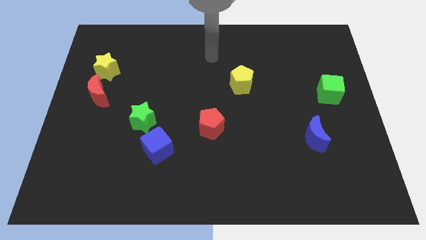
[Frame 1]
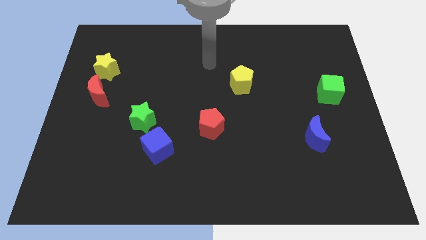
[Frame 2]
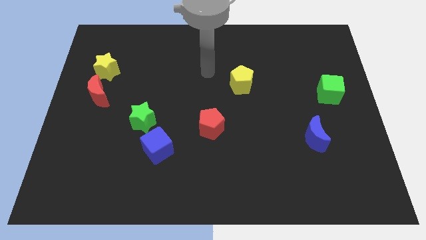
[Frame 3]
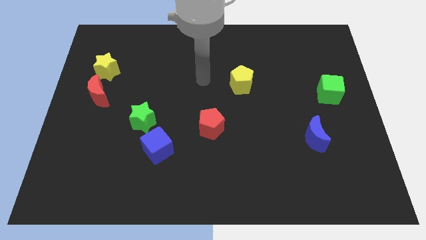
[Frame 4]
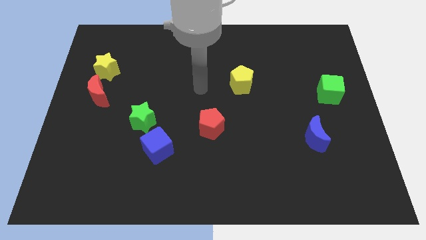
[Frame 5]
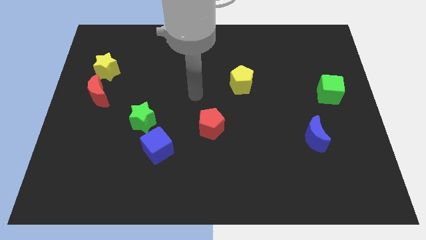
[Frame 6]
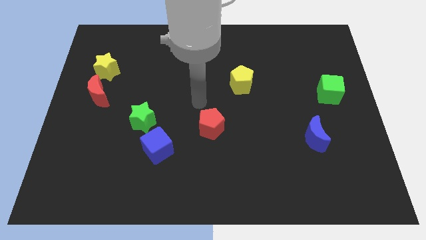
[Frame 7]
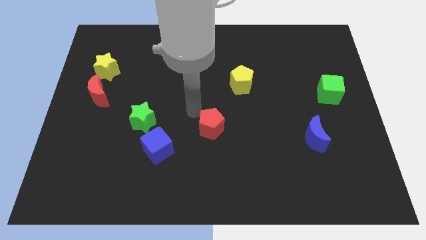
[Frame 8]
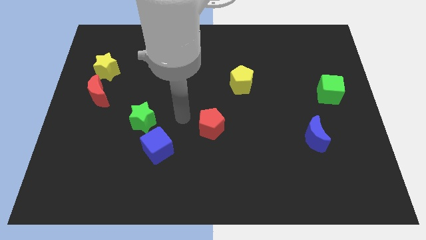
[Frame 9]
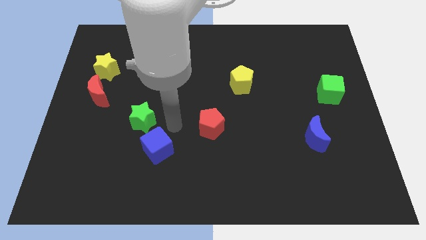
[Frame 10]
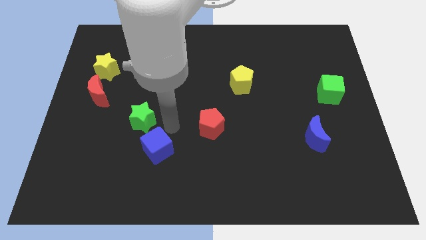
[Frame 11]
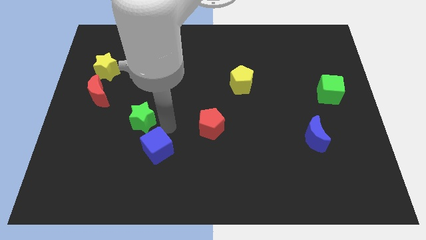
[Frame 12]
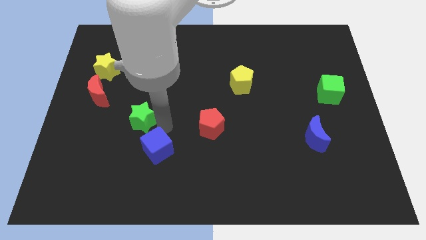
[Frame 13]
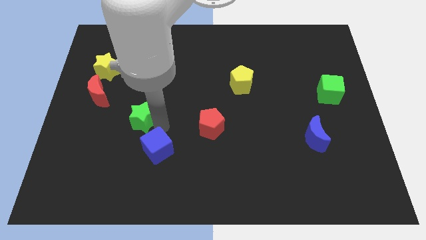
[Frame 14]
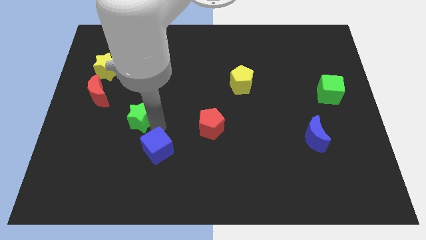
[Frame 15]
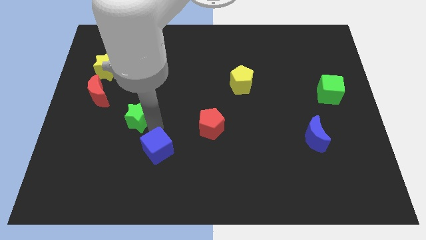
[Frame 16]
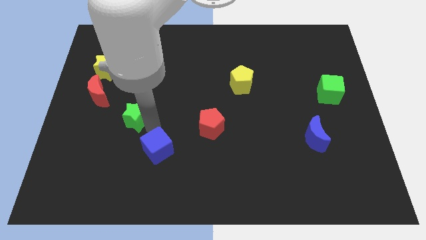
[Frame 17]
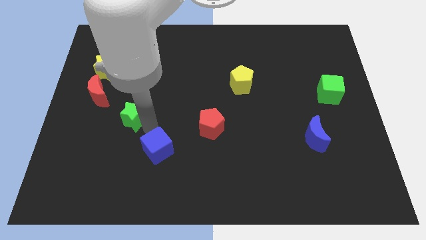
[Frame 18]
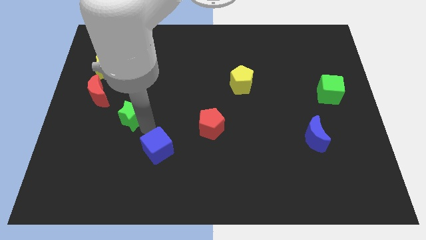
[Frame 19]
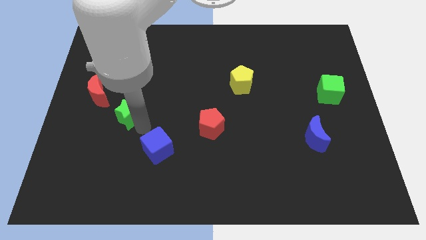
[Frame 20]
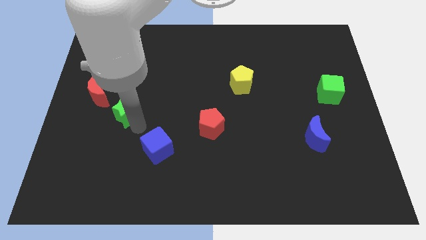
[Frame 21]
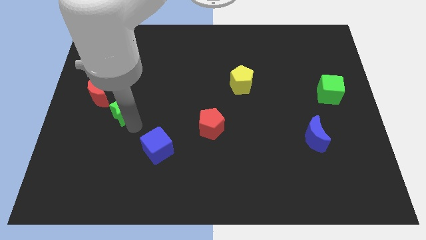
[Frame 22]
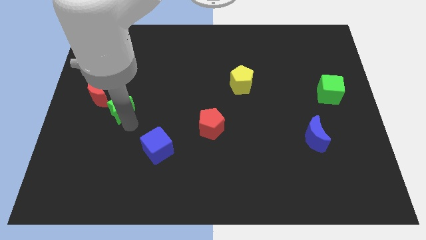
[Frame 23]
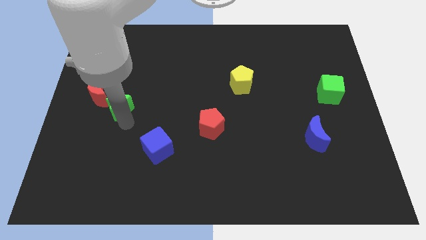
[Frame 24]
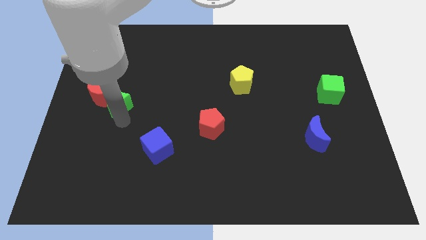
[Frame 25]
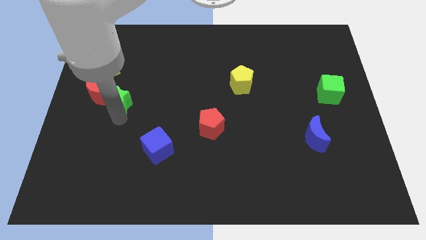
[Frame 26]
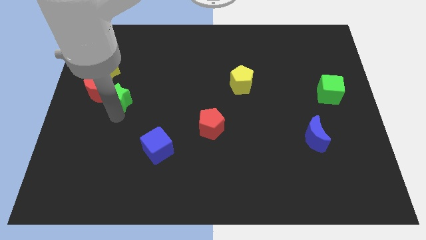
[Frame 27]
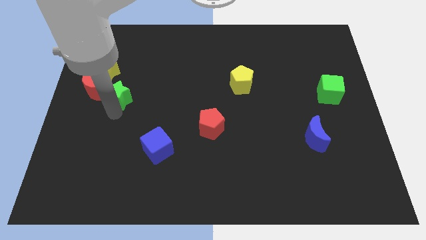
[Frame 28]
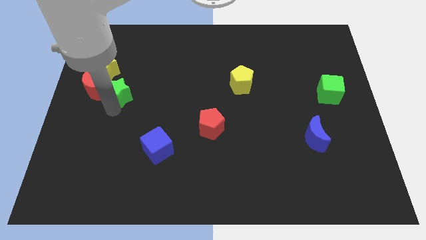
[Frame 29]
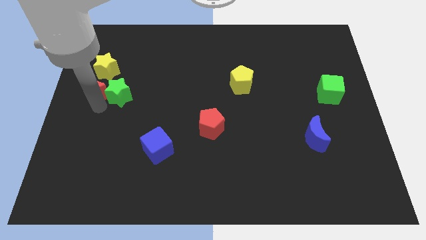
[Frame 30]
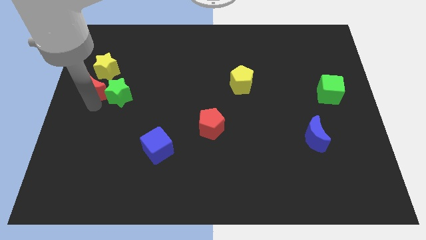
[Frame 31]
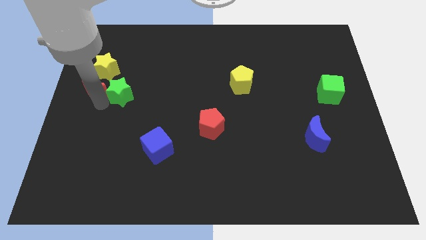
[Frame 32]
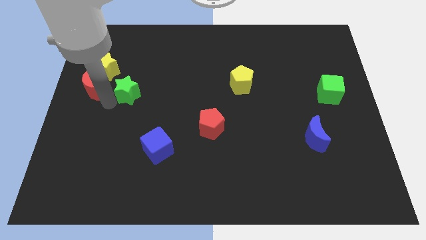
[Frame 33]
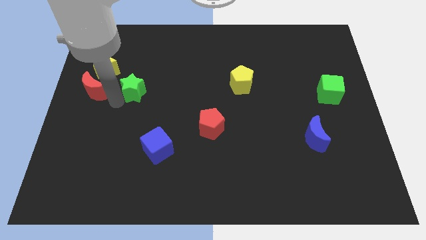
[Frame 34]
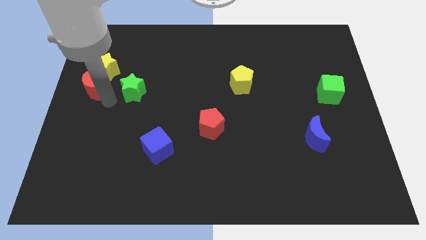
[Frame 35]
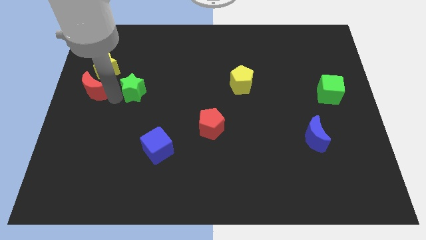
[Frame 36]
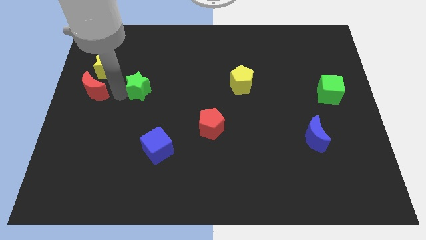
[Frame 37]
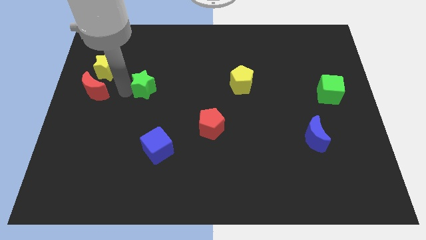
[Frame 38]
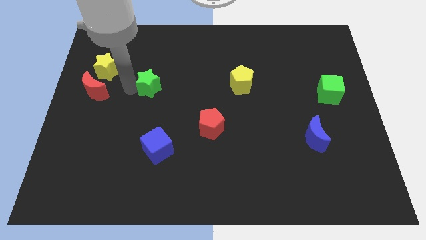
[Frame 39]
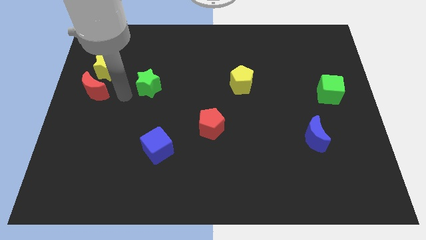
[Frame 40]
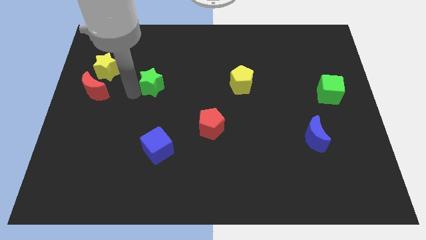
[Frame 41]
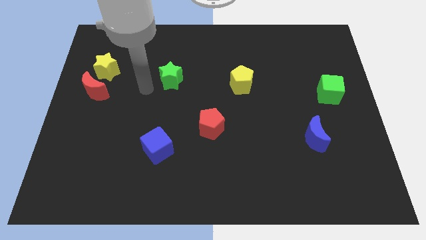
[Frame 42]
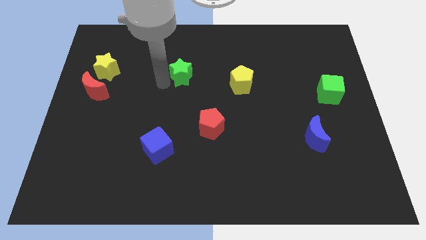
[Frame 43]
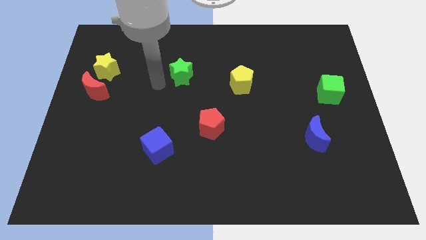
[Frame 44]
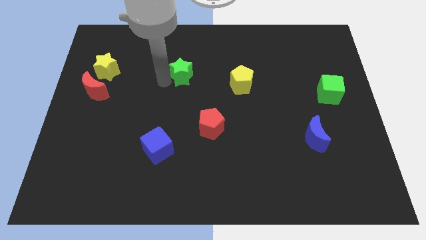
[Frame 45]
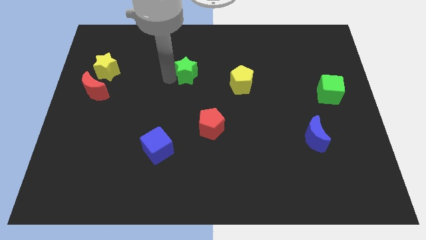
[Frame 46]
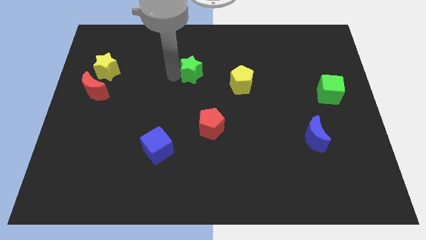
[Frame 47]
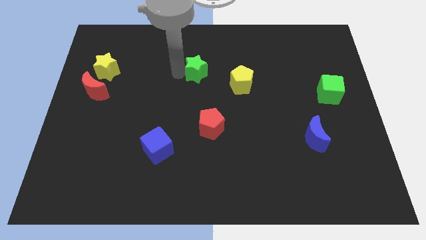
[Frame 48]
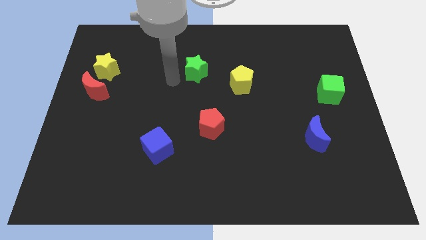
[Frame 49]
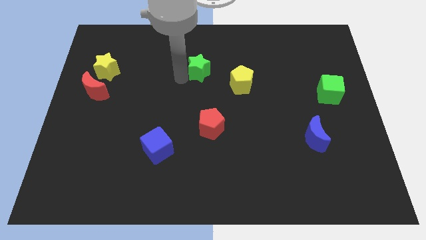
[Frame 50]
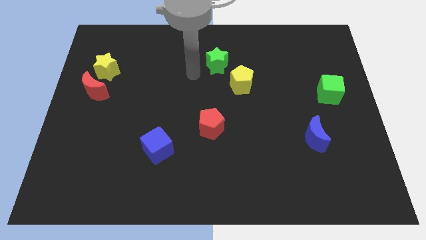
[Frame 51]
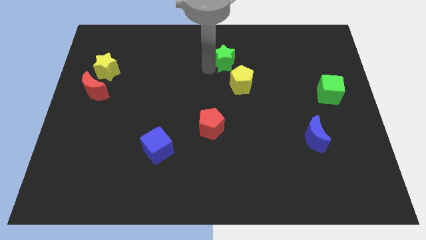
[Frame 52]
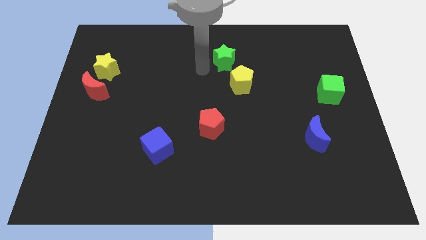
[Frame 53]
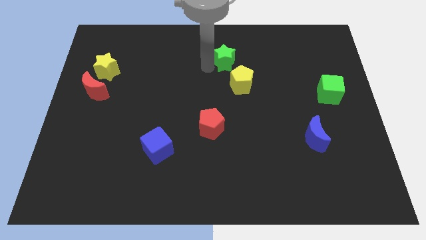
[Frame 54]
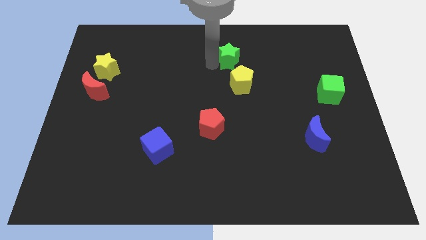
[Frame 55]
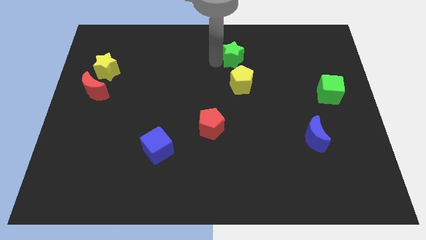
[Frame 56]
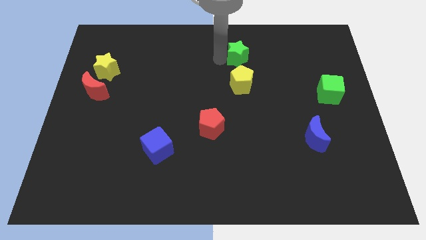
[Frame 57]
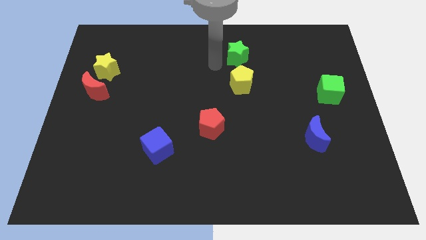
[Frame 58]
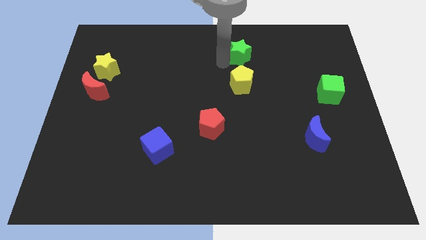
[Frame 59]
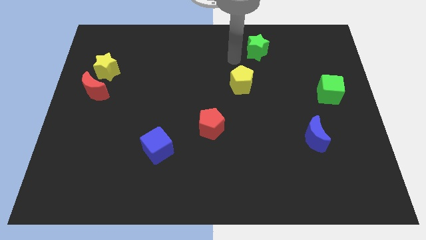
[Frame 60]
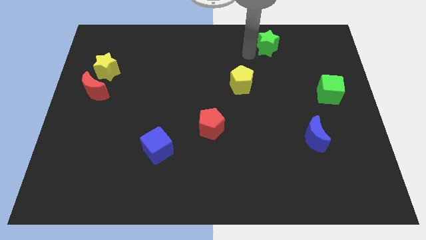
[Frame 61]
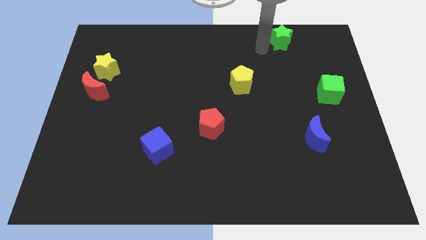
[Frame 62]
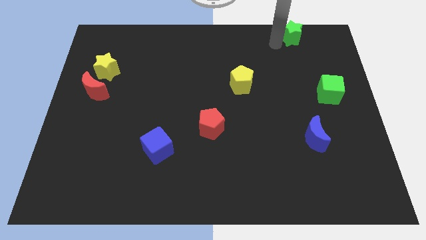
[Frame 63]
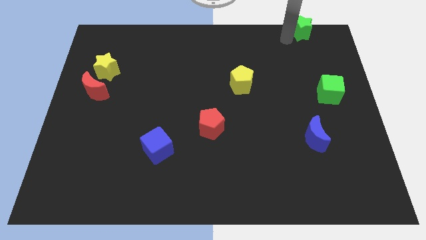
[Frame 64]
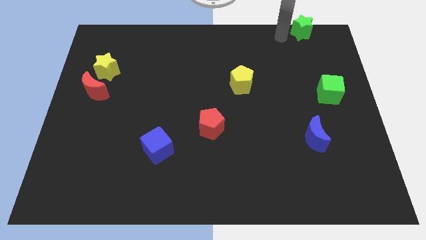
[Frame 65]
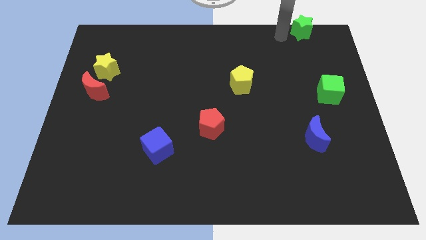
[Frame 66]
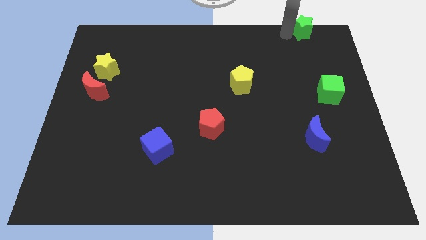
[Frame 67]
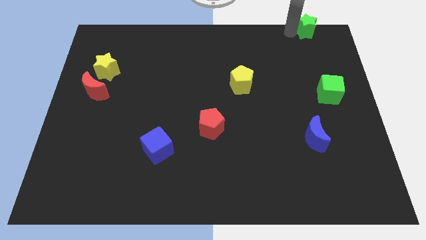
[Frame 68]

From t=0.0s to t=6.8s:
push the green star to the top right corner
